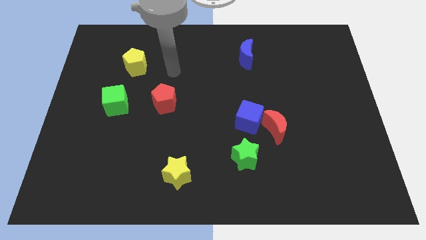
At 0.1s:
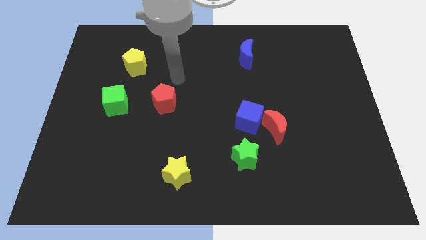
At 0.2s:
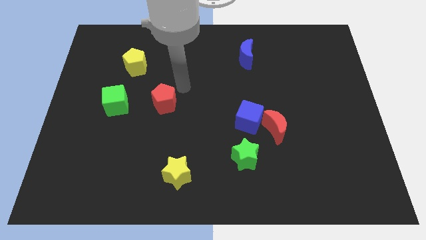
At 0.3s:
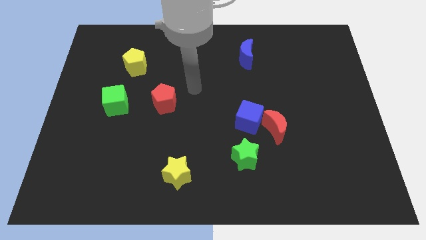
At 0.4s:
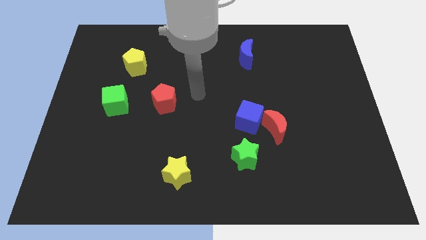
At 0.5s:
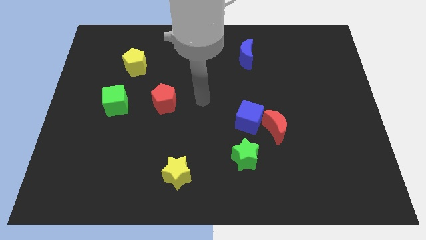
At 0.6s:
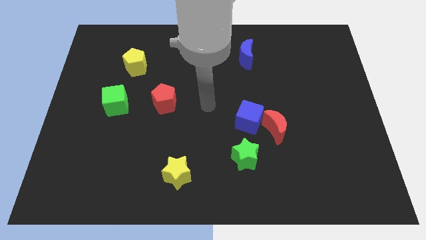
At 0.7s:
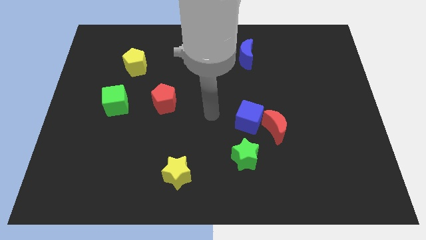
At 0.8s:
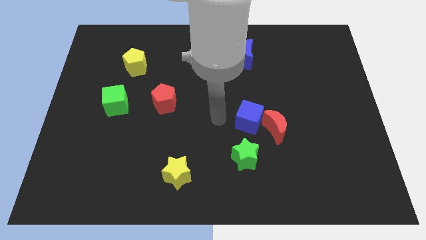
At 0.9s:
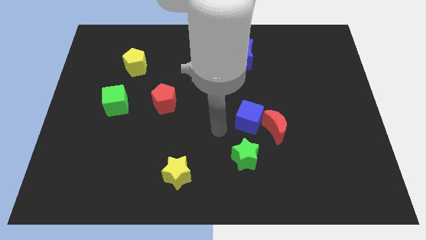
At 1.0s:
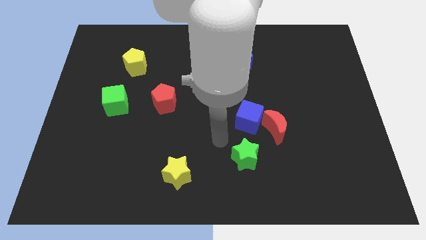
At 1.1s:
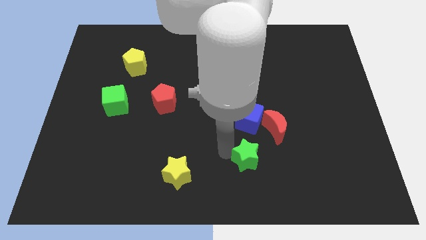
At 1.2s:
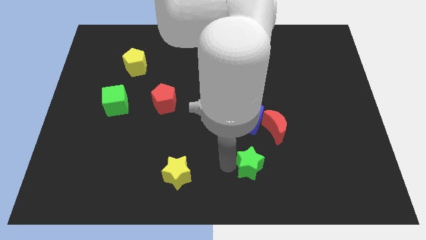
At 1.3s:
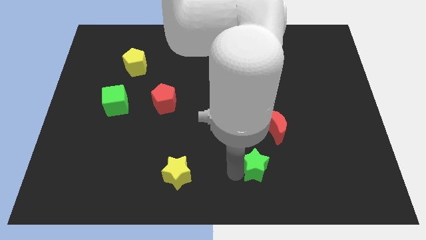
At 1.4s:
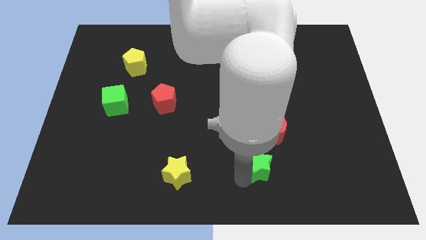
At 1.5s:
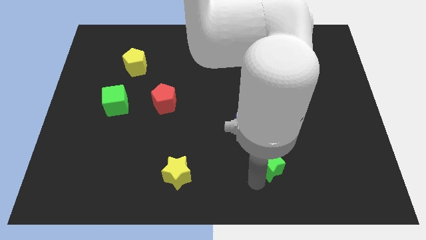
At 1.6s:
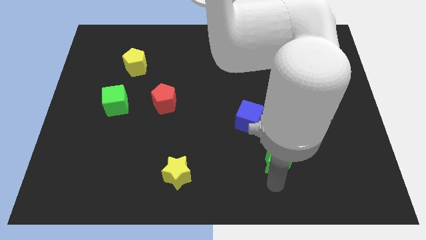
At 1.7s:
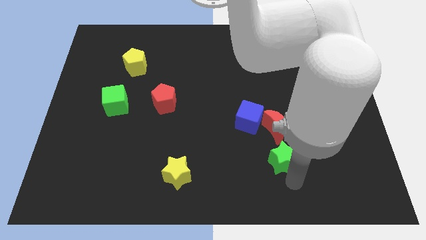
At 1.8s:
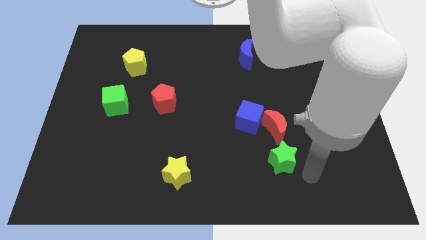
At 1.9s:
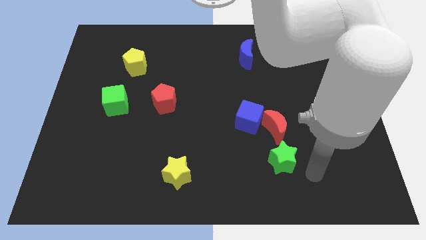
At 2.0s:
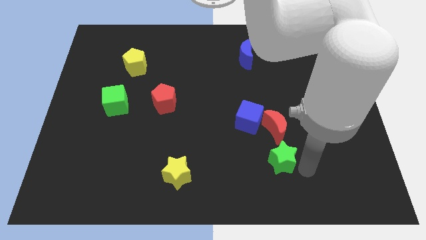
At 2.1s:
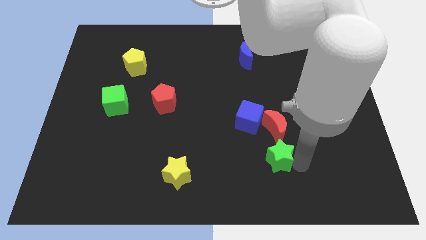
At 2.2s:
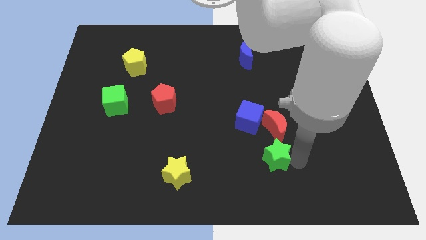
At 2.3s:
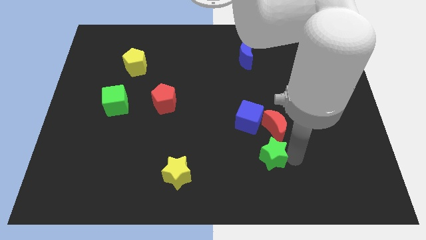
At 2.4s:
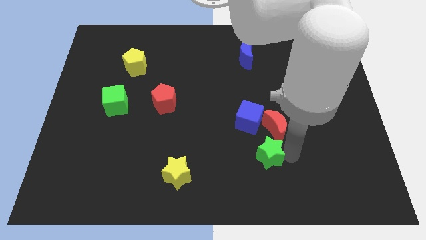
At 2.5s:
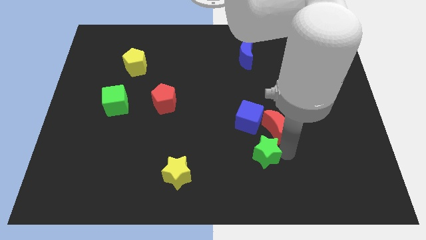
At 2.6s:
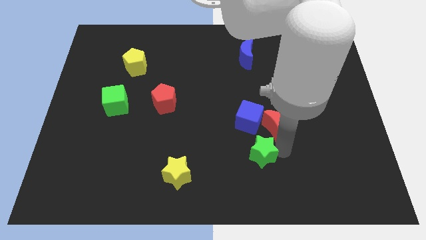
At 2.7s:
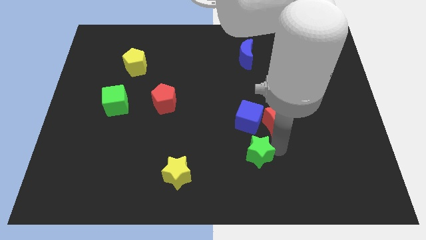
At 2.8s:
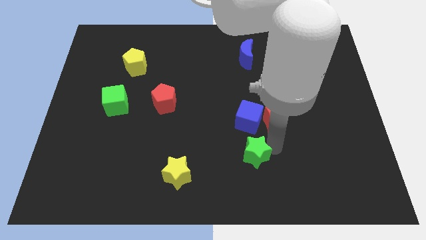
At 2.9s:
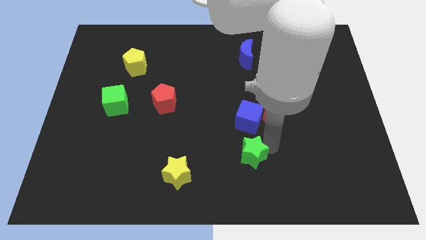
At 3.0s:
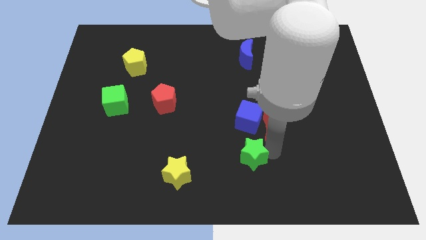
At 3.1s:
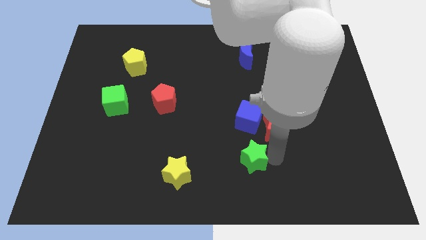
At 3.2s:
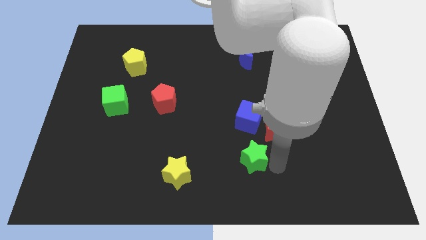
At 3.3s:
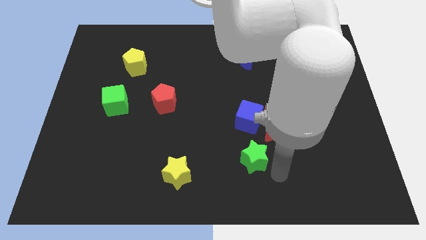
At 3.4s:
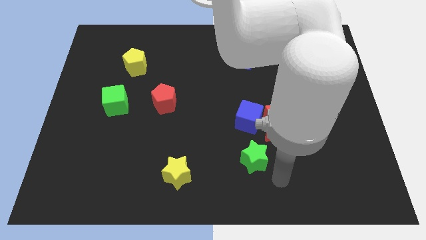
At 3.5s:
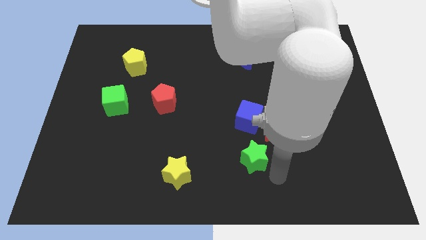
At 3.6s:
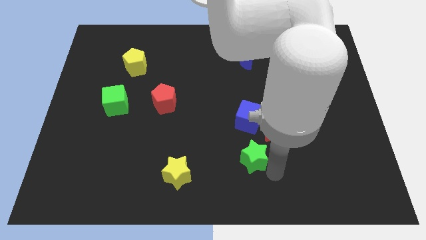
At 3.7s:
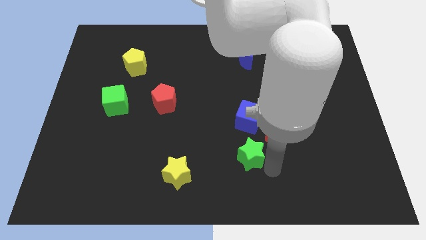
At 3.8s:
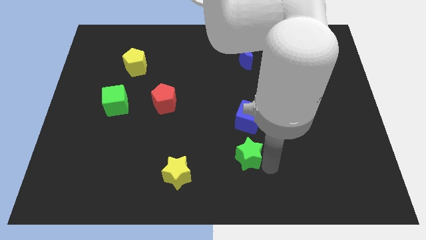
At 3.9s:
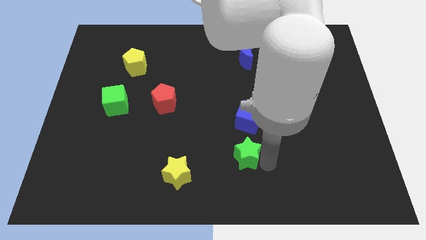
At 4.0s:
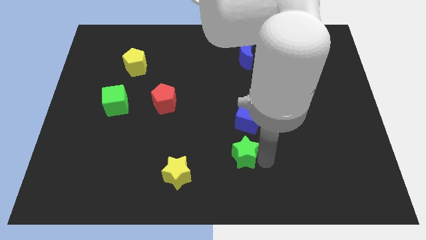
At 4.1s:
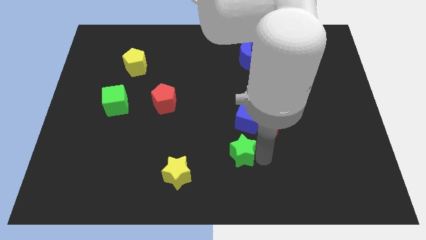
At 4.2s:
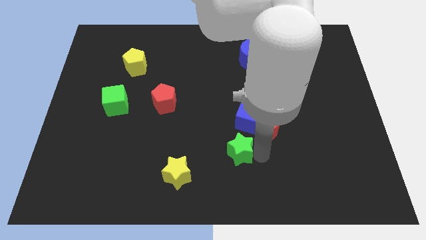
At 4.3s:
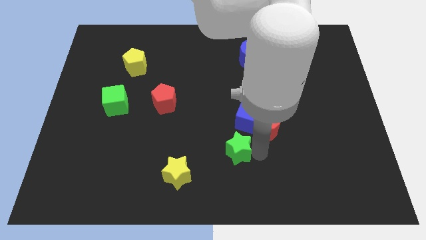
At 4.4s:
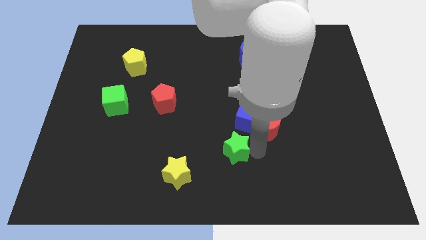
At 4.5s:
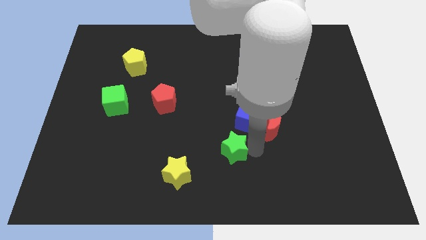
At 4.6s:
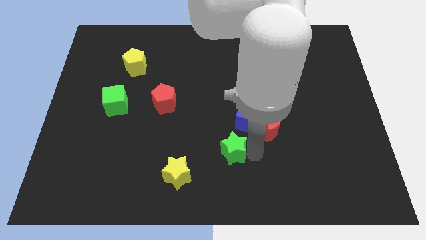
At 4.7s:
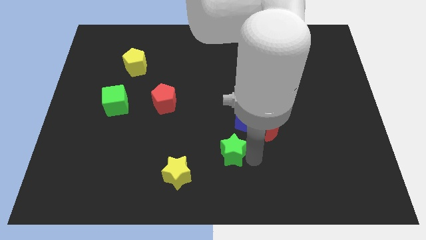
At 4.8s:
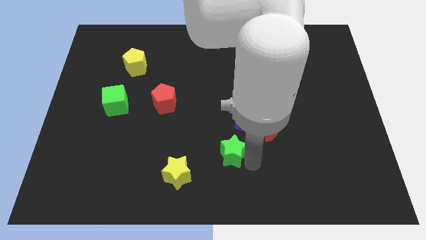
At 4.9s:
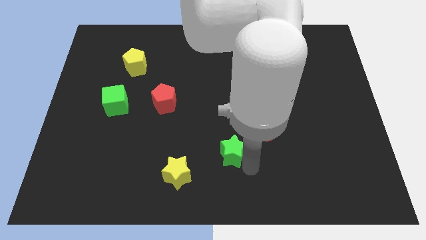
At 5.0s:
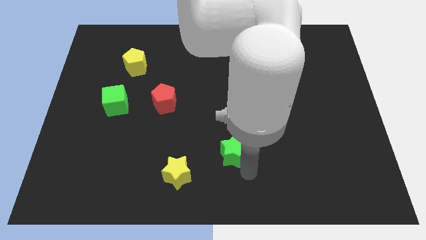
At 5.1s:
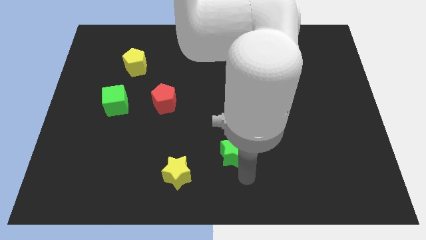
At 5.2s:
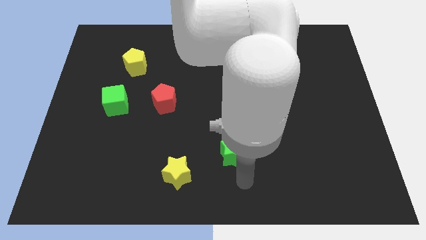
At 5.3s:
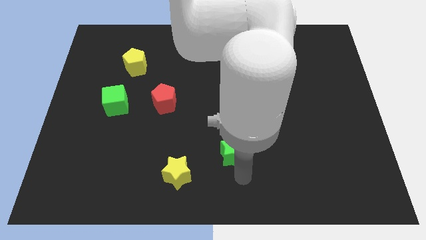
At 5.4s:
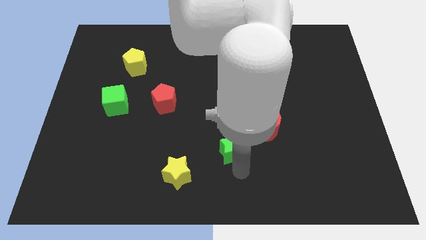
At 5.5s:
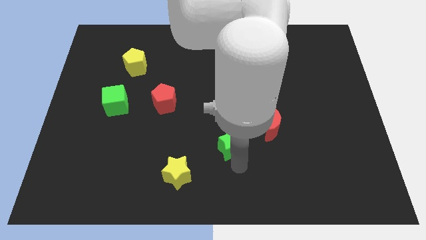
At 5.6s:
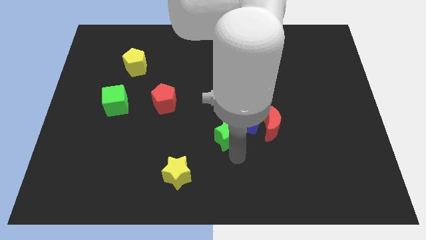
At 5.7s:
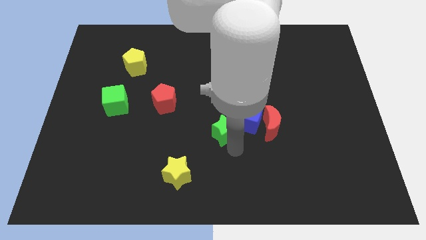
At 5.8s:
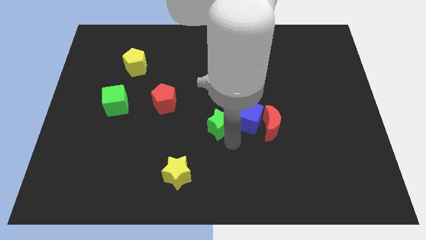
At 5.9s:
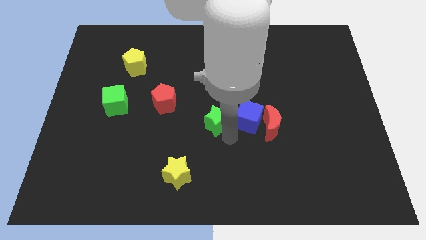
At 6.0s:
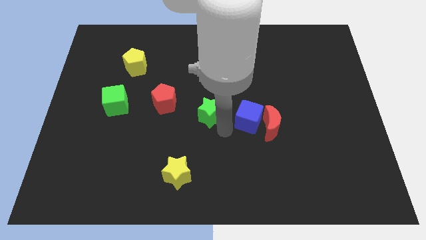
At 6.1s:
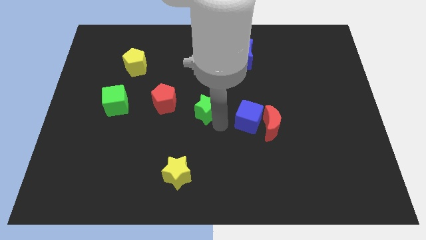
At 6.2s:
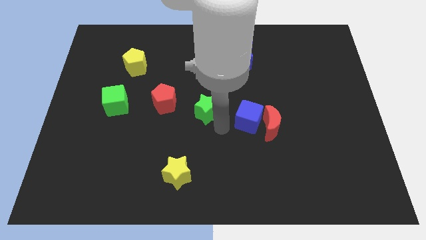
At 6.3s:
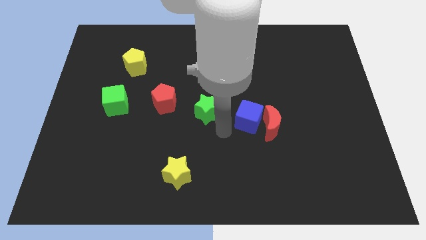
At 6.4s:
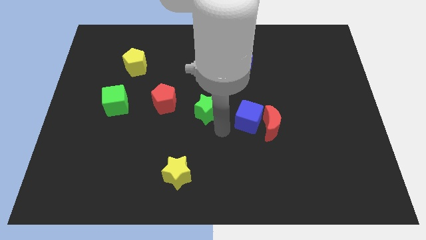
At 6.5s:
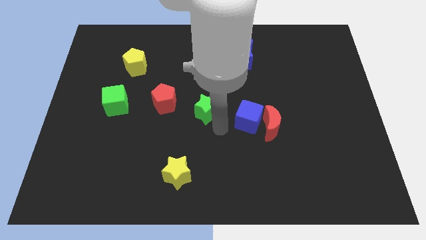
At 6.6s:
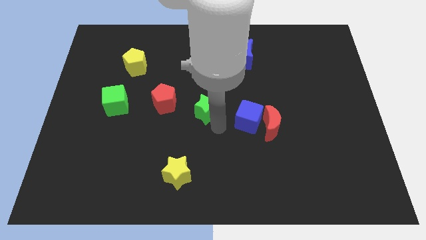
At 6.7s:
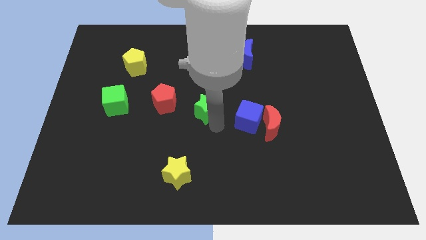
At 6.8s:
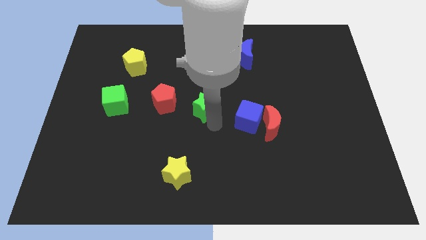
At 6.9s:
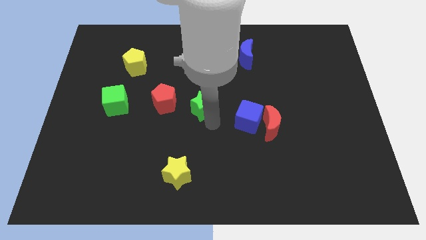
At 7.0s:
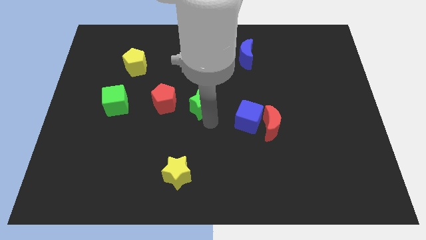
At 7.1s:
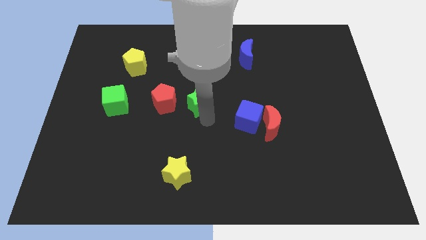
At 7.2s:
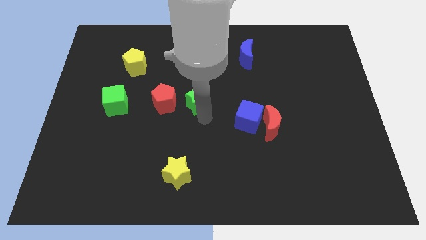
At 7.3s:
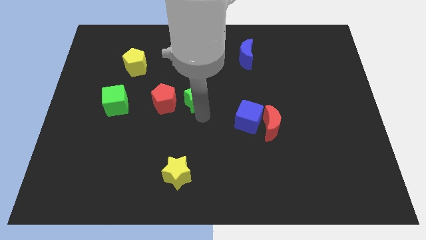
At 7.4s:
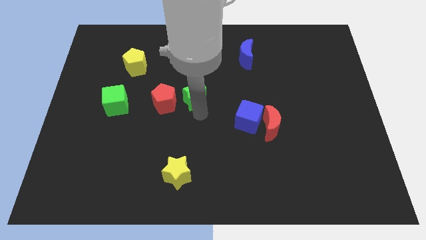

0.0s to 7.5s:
slide the green star diagonally up and to the right of the red pentagon
